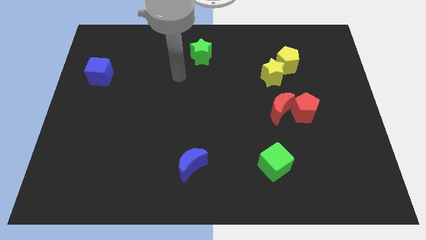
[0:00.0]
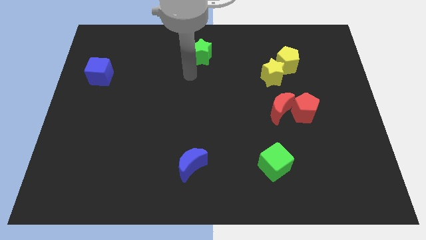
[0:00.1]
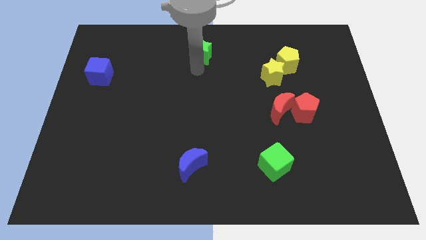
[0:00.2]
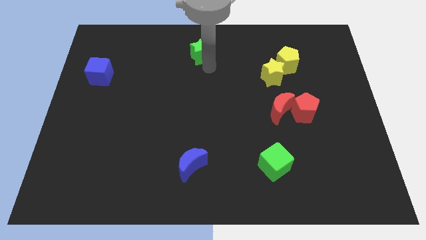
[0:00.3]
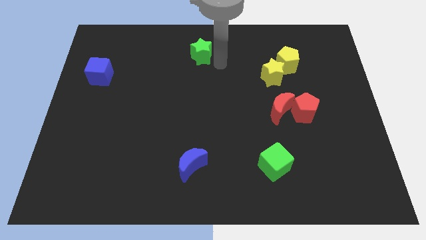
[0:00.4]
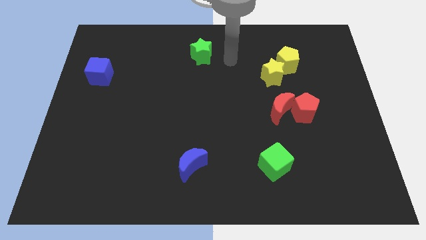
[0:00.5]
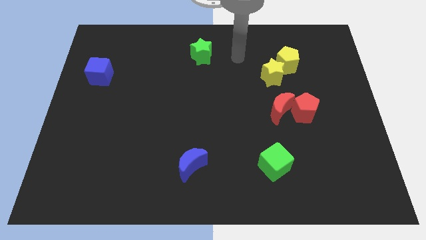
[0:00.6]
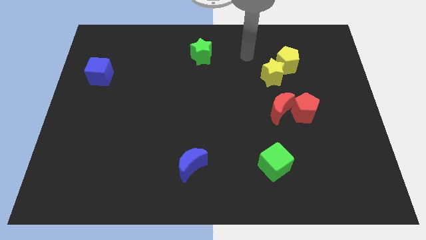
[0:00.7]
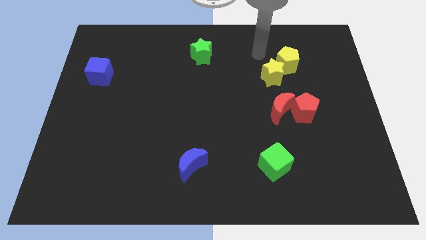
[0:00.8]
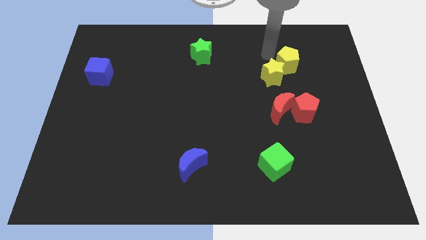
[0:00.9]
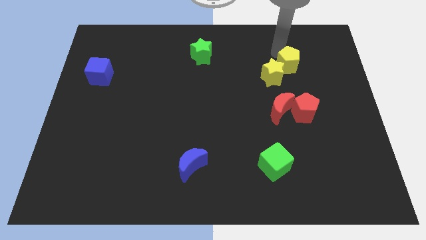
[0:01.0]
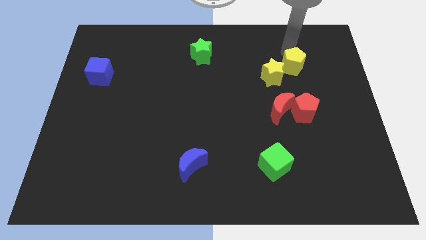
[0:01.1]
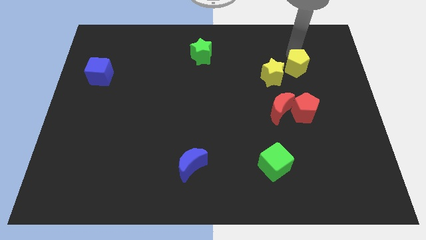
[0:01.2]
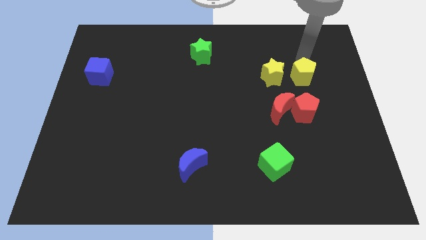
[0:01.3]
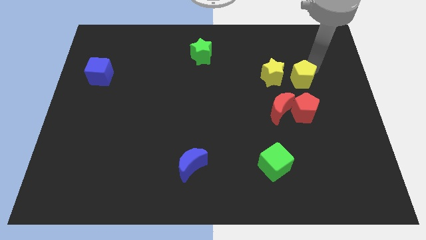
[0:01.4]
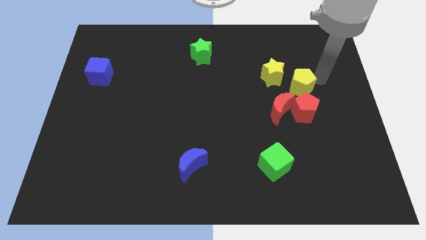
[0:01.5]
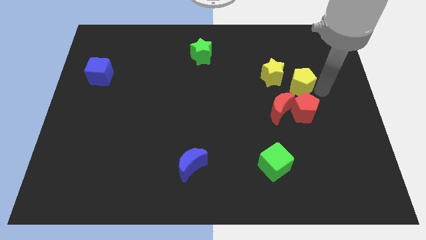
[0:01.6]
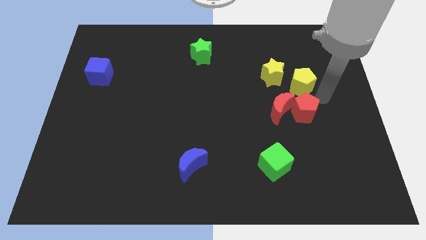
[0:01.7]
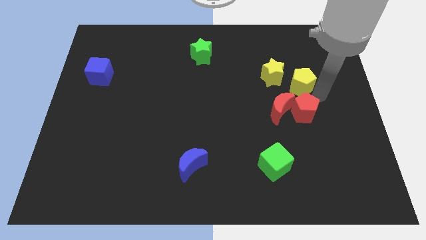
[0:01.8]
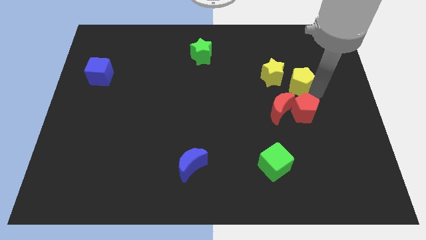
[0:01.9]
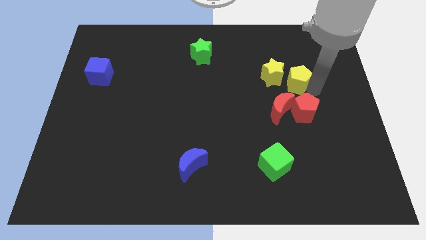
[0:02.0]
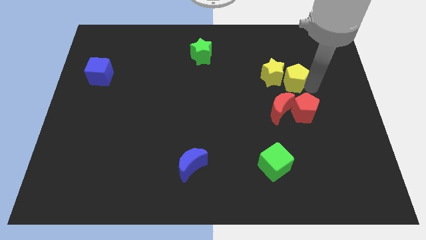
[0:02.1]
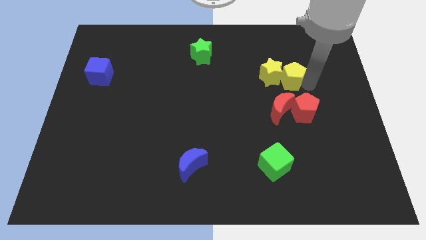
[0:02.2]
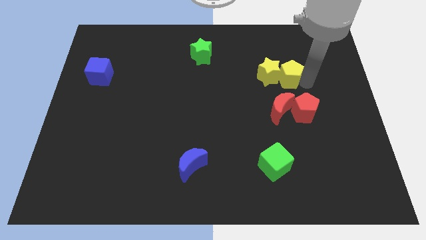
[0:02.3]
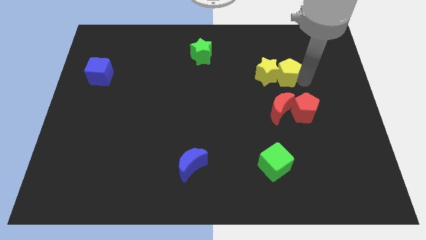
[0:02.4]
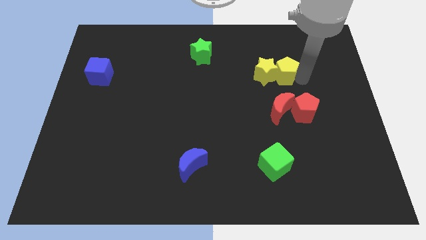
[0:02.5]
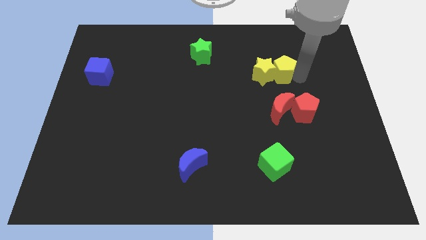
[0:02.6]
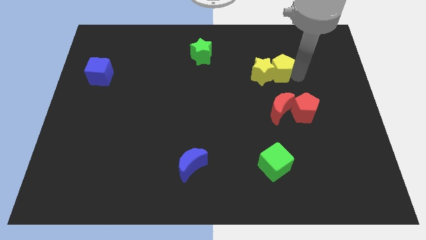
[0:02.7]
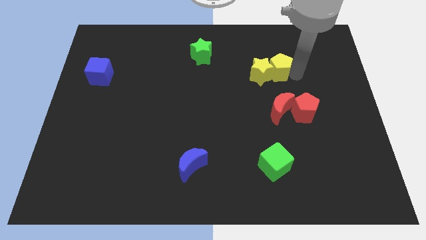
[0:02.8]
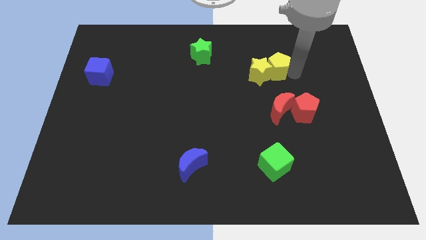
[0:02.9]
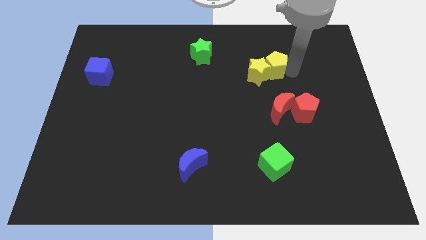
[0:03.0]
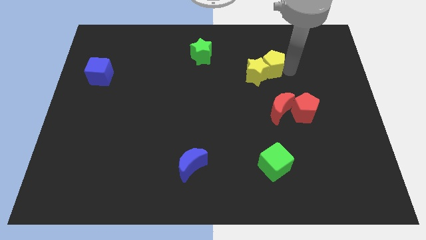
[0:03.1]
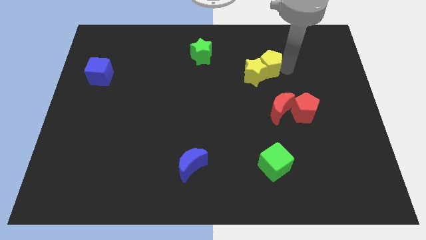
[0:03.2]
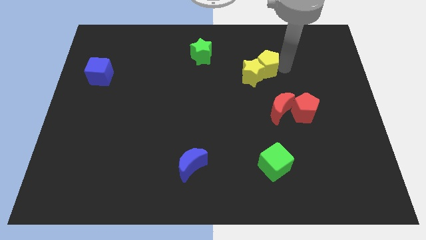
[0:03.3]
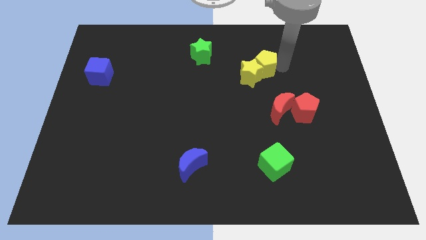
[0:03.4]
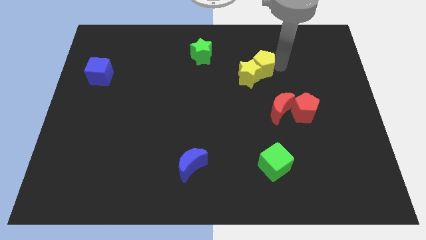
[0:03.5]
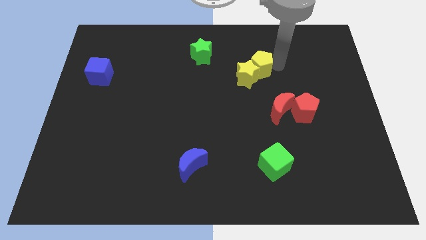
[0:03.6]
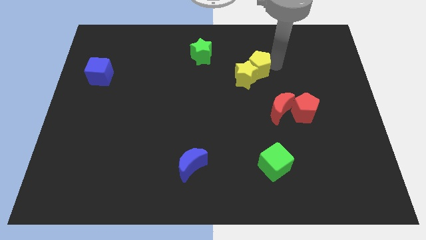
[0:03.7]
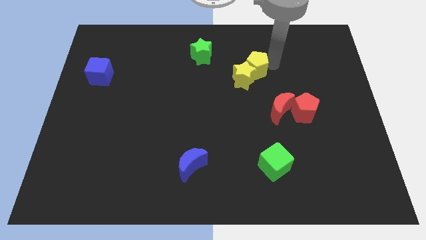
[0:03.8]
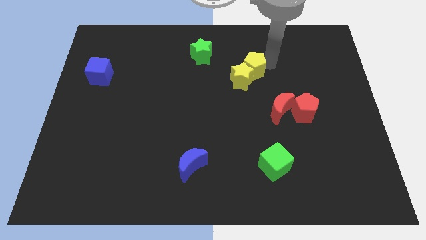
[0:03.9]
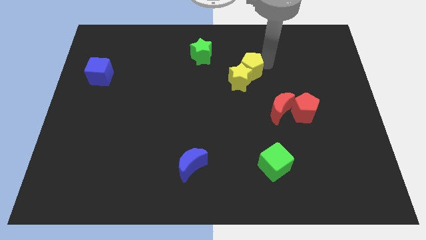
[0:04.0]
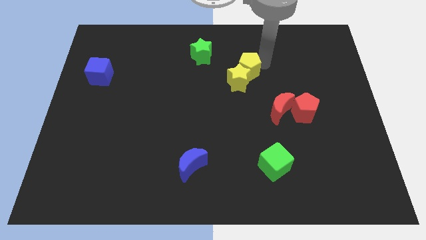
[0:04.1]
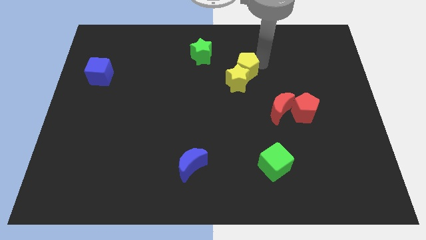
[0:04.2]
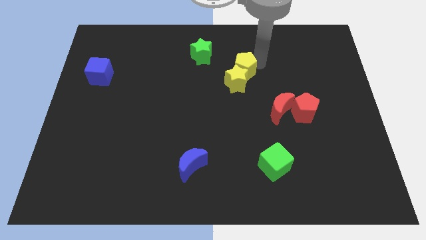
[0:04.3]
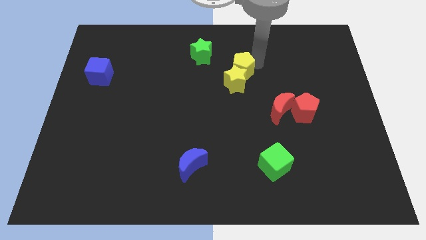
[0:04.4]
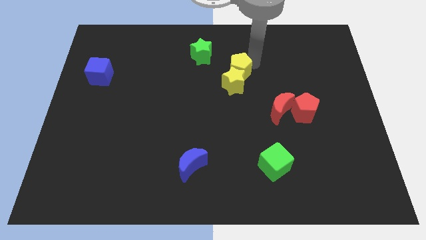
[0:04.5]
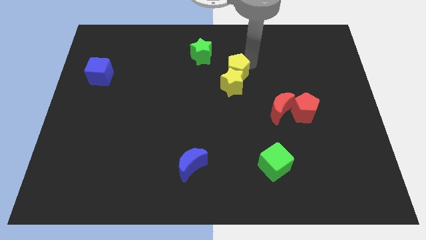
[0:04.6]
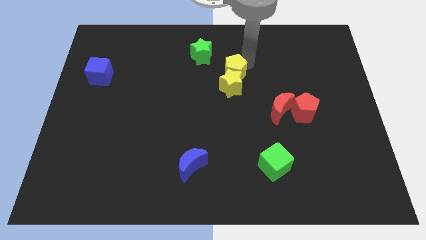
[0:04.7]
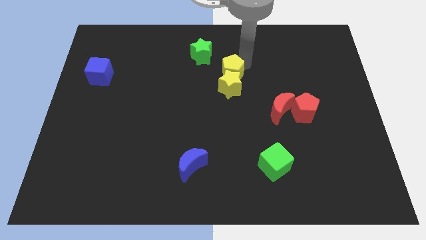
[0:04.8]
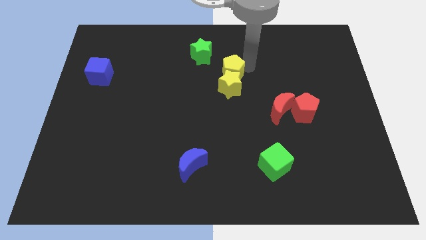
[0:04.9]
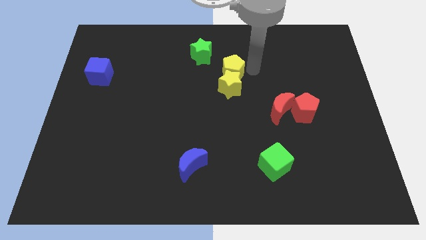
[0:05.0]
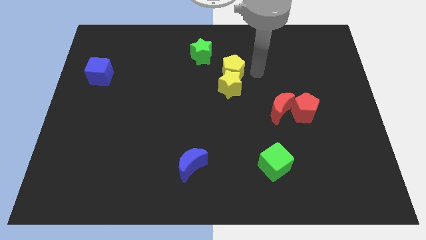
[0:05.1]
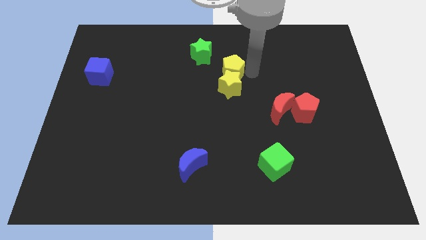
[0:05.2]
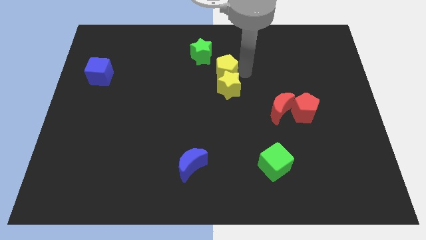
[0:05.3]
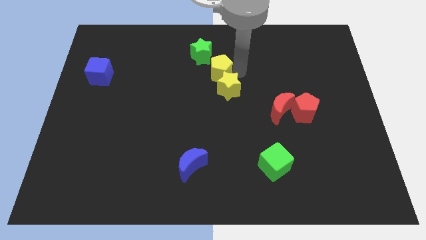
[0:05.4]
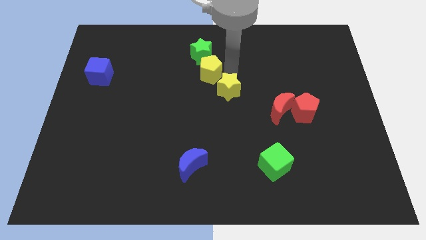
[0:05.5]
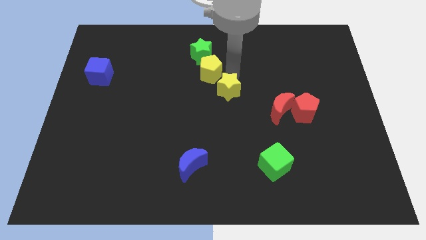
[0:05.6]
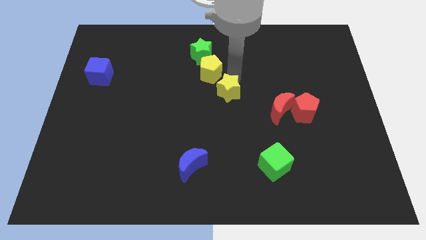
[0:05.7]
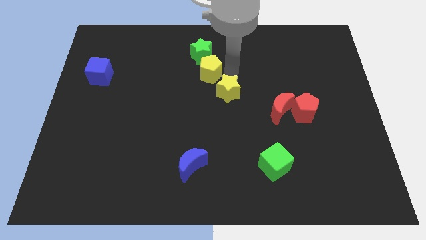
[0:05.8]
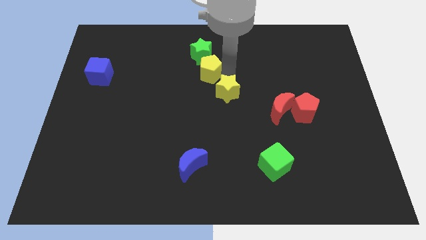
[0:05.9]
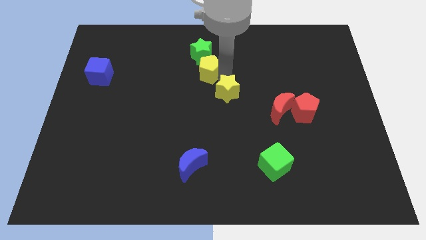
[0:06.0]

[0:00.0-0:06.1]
move the yellow pentagon left

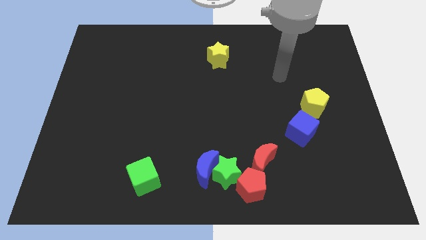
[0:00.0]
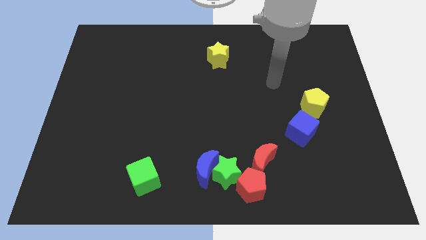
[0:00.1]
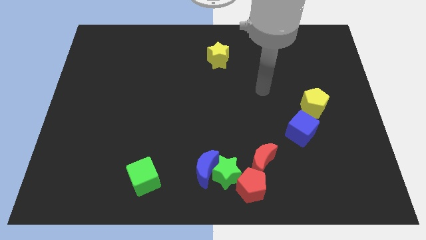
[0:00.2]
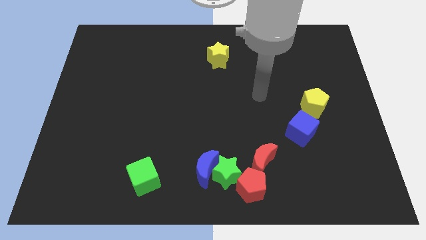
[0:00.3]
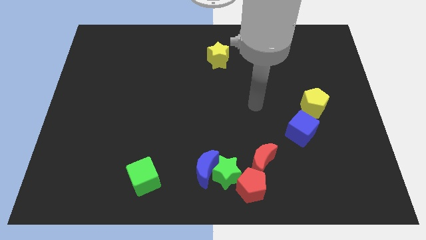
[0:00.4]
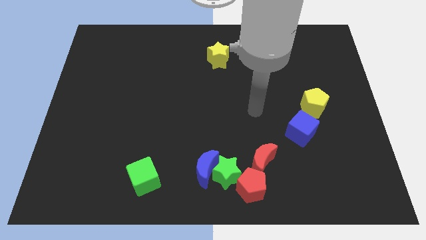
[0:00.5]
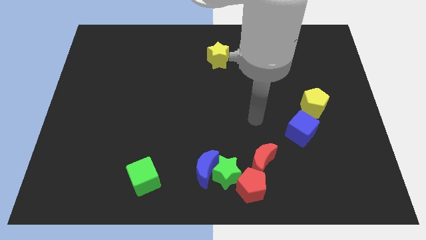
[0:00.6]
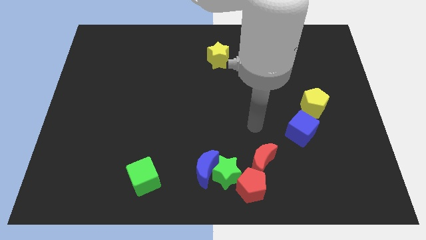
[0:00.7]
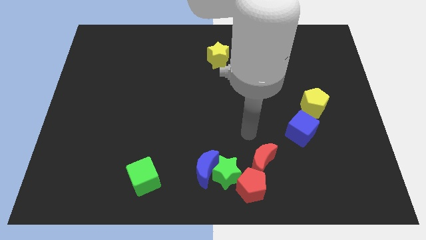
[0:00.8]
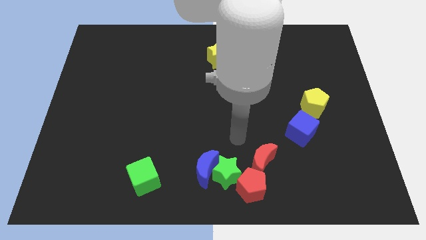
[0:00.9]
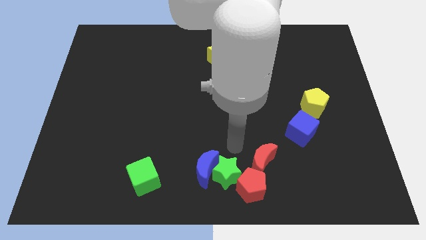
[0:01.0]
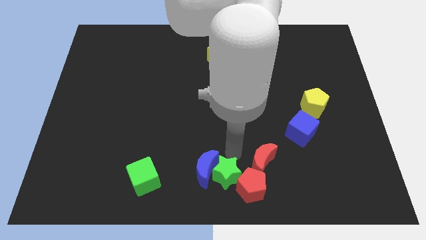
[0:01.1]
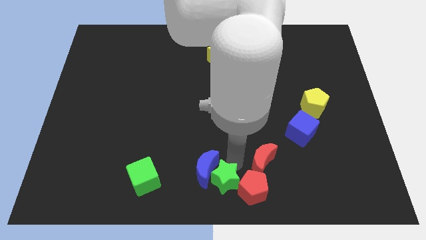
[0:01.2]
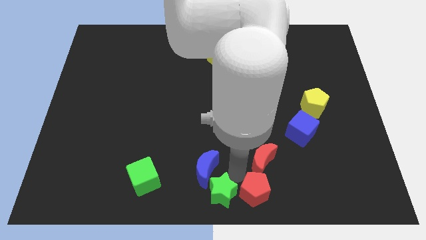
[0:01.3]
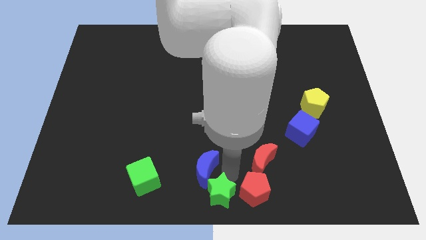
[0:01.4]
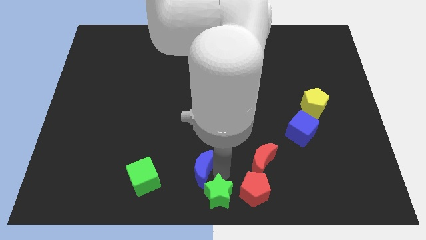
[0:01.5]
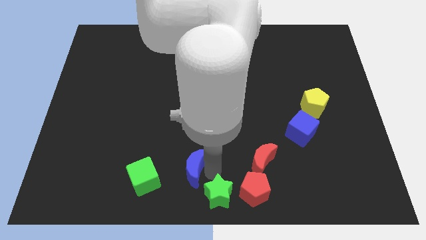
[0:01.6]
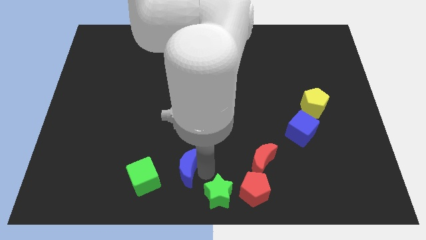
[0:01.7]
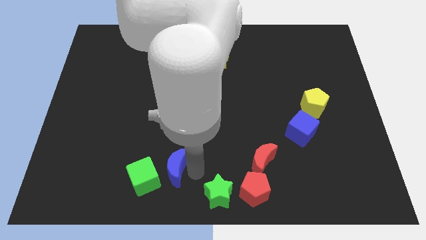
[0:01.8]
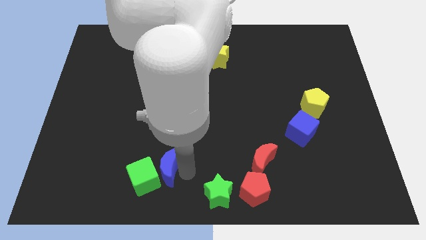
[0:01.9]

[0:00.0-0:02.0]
move the blue moon left a little bit

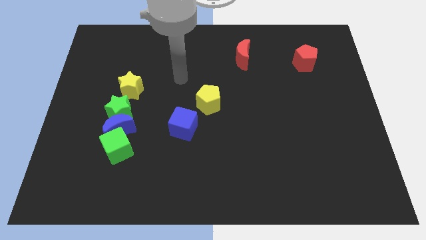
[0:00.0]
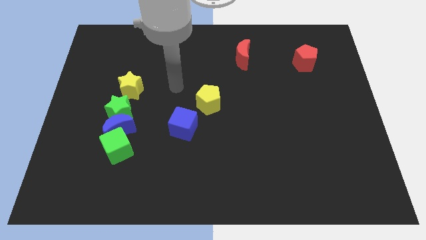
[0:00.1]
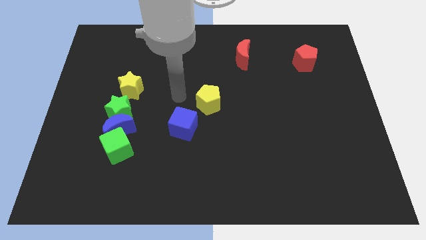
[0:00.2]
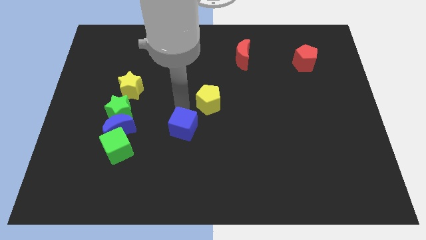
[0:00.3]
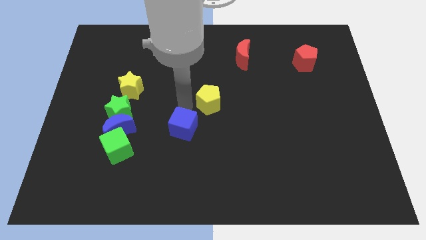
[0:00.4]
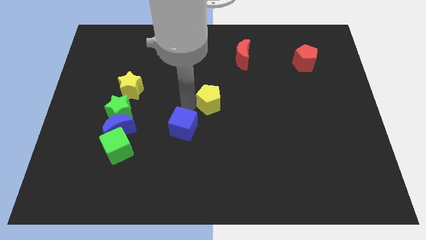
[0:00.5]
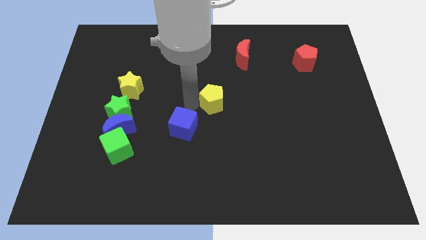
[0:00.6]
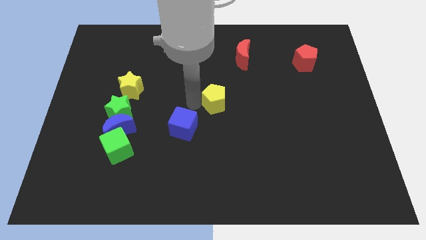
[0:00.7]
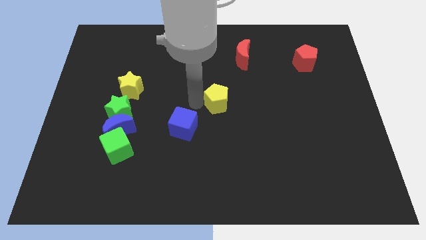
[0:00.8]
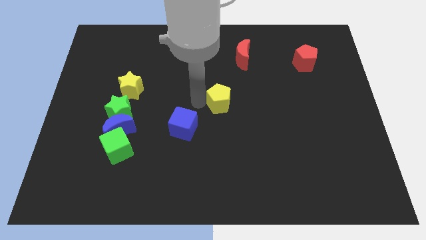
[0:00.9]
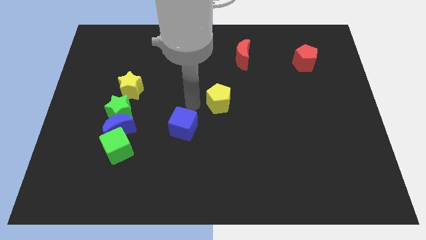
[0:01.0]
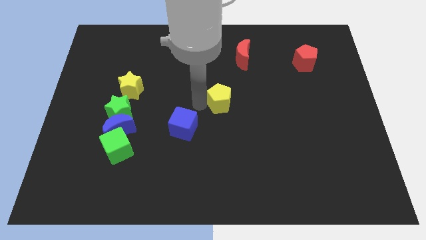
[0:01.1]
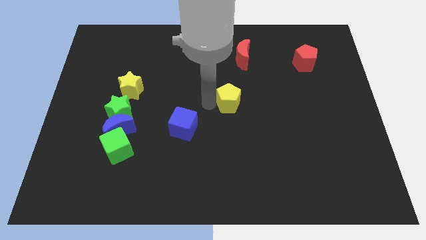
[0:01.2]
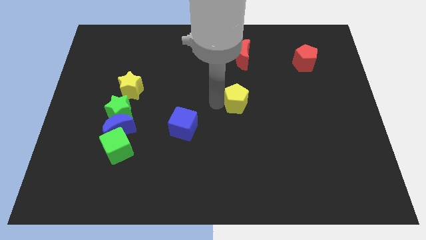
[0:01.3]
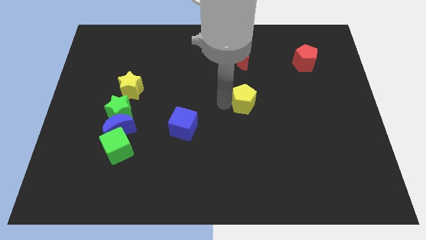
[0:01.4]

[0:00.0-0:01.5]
slightly push the yellow pentagon to the right
